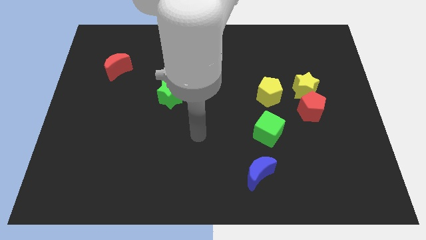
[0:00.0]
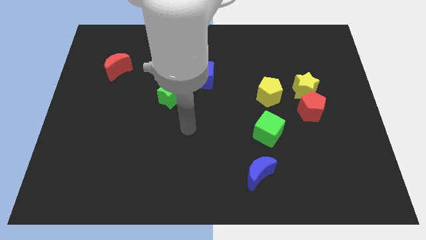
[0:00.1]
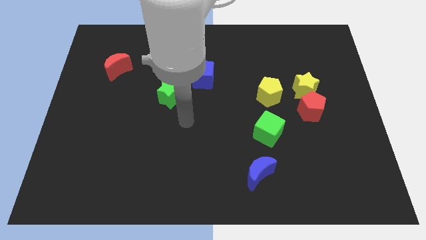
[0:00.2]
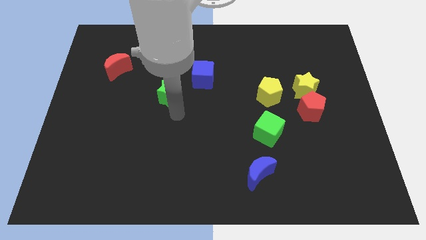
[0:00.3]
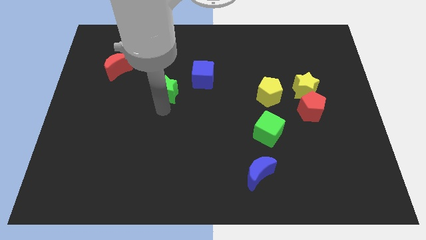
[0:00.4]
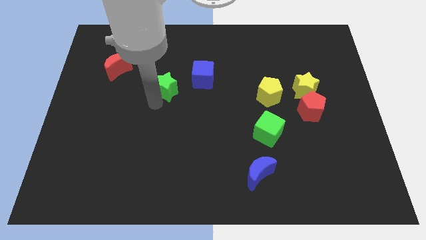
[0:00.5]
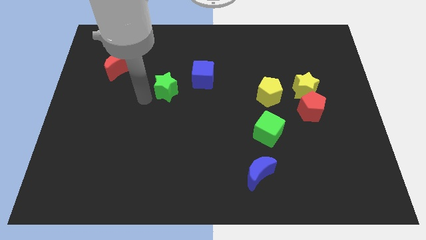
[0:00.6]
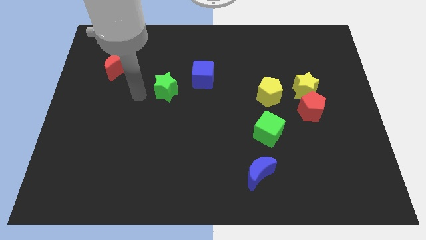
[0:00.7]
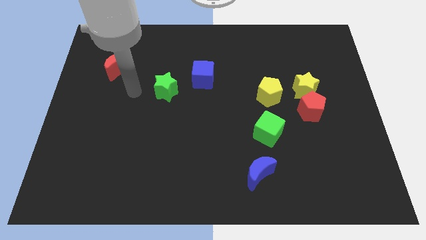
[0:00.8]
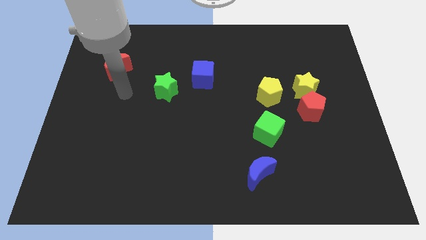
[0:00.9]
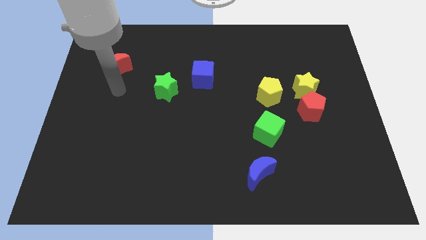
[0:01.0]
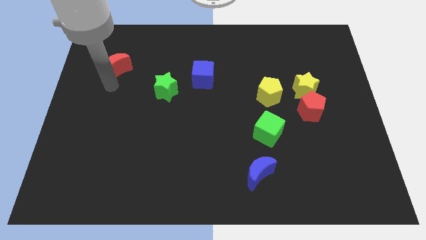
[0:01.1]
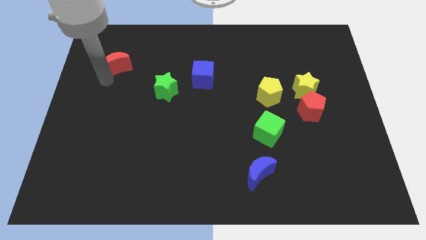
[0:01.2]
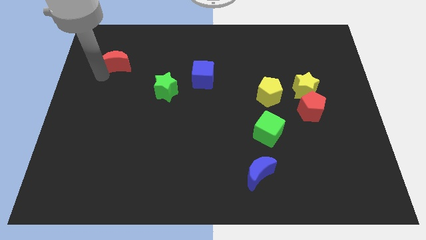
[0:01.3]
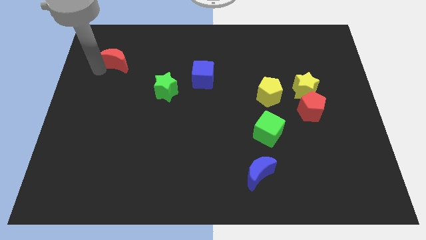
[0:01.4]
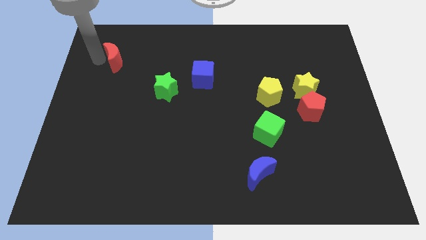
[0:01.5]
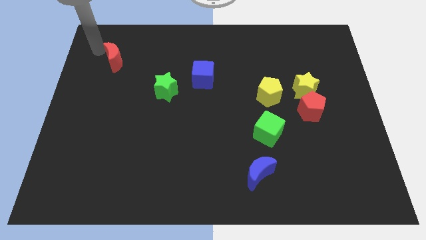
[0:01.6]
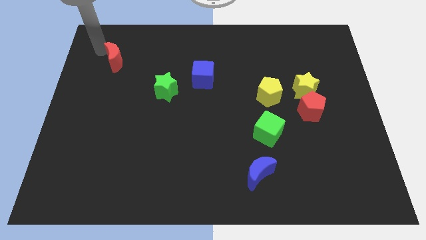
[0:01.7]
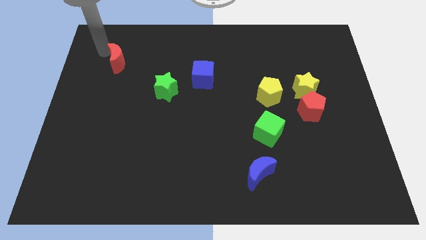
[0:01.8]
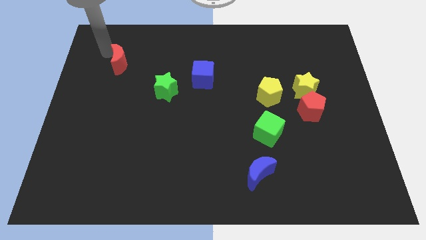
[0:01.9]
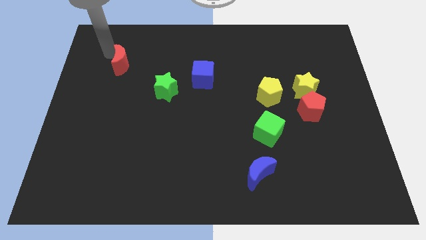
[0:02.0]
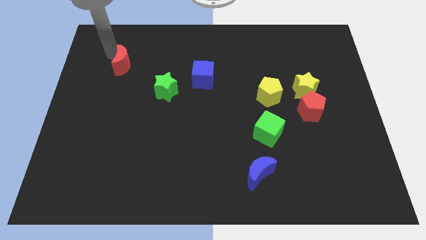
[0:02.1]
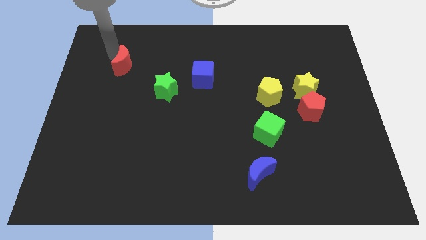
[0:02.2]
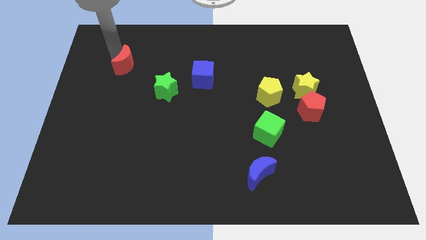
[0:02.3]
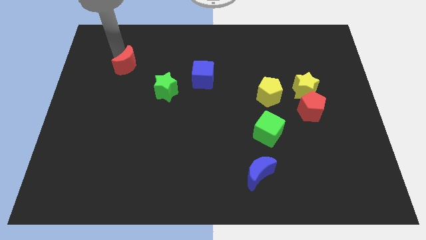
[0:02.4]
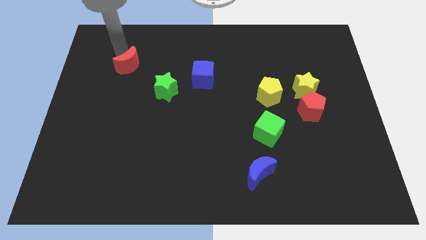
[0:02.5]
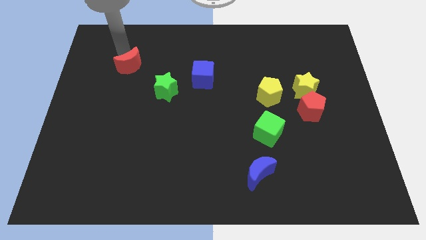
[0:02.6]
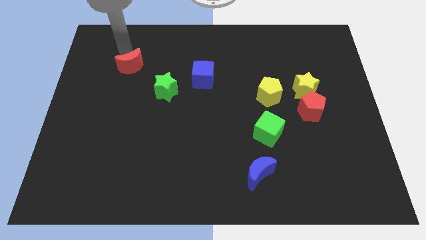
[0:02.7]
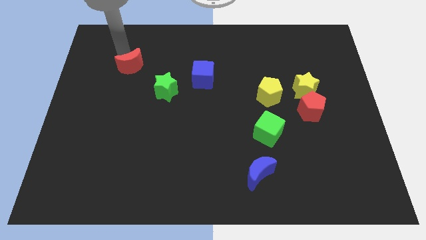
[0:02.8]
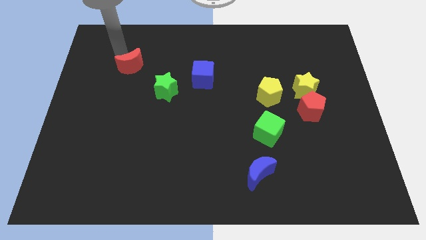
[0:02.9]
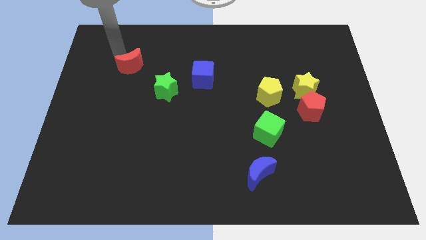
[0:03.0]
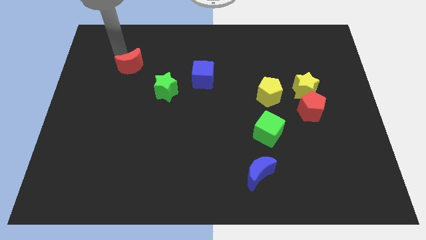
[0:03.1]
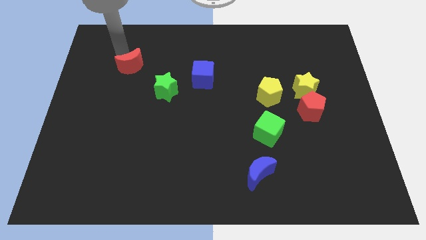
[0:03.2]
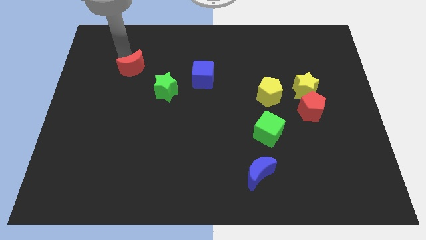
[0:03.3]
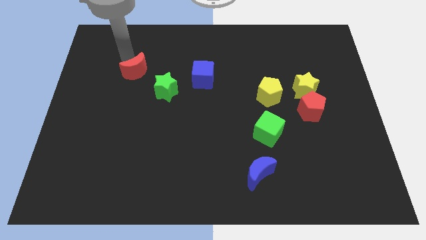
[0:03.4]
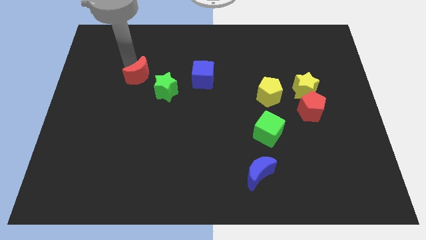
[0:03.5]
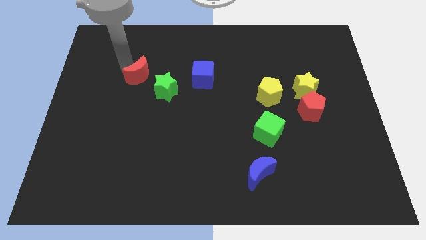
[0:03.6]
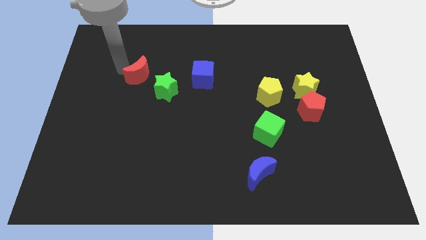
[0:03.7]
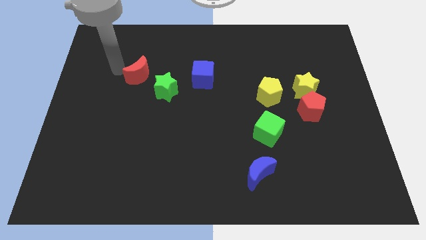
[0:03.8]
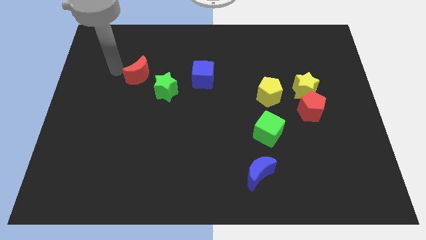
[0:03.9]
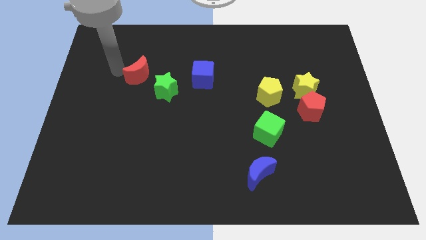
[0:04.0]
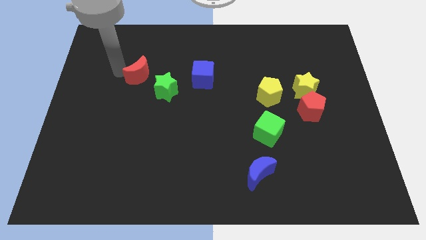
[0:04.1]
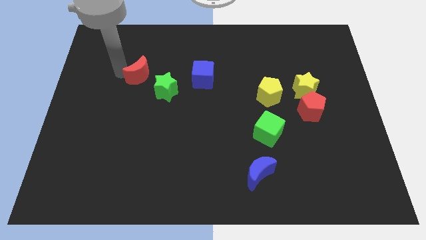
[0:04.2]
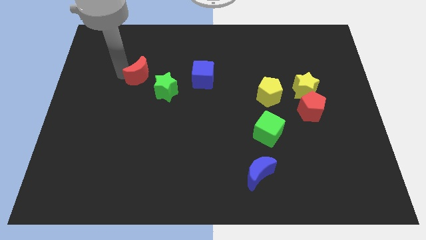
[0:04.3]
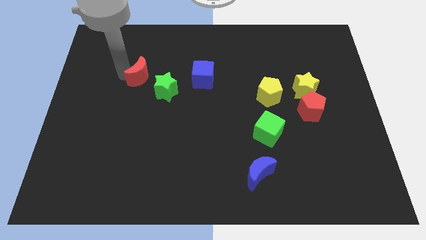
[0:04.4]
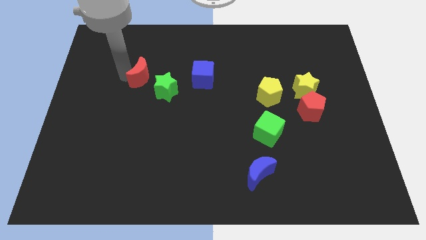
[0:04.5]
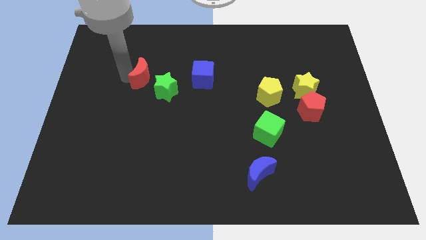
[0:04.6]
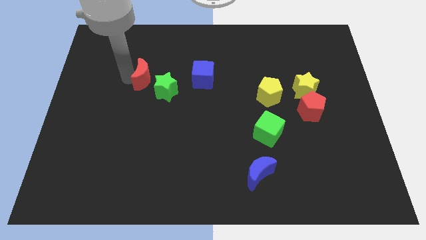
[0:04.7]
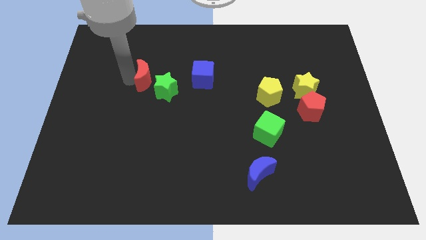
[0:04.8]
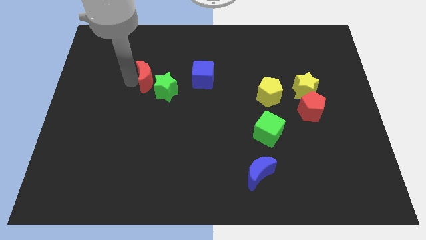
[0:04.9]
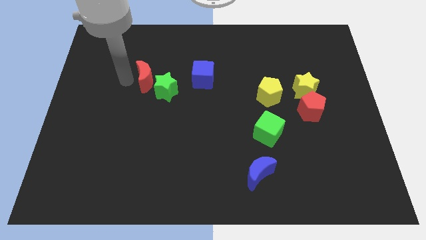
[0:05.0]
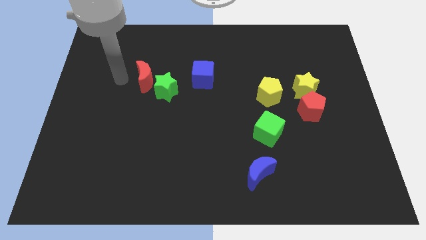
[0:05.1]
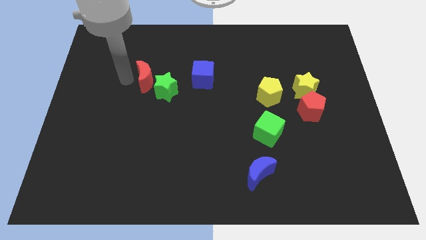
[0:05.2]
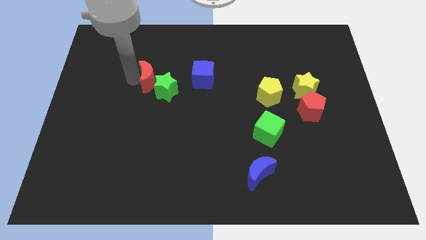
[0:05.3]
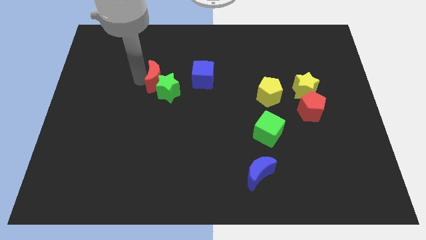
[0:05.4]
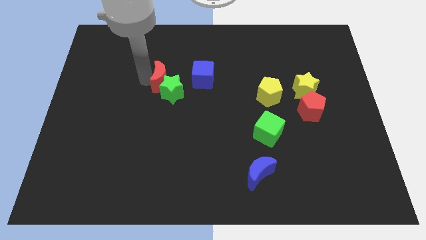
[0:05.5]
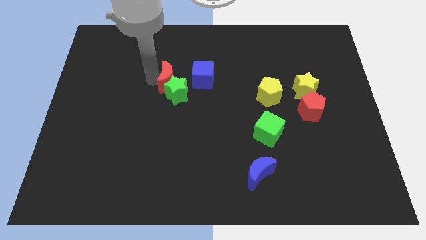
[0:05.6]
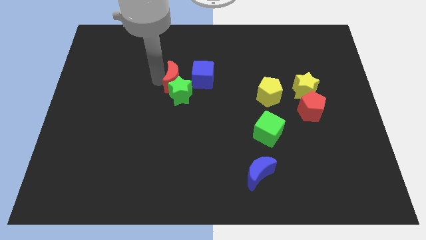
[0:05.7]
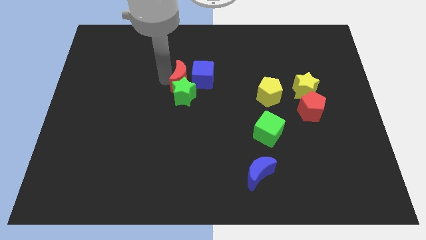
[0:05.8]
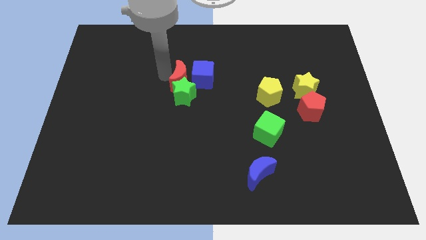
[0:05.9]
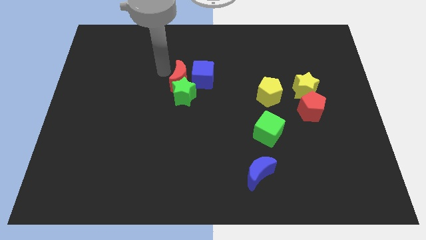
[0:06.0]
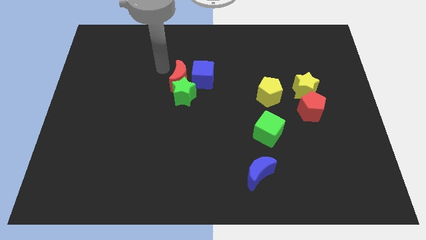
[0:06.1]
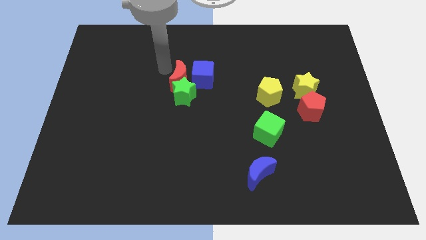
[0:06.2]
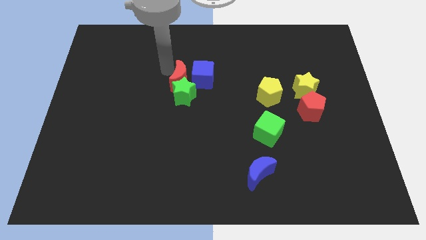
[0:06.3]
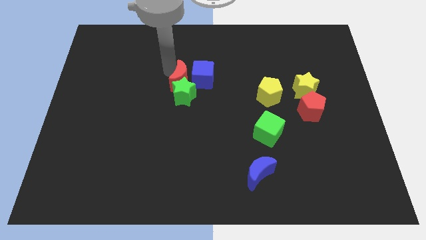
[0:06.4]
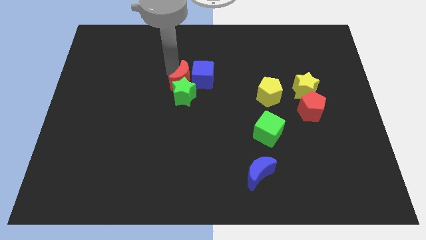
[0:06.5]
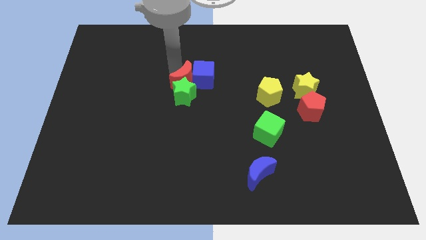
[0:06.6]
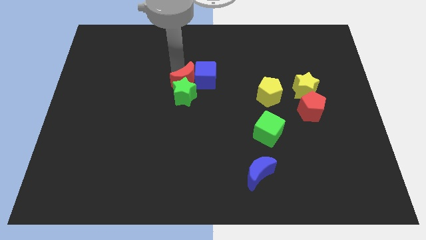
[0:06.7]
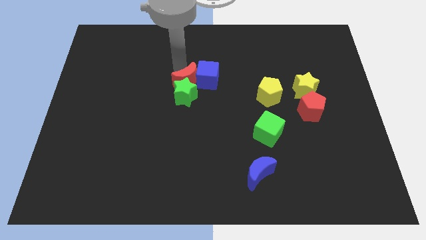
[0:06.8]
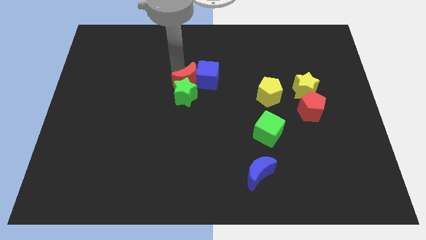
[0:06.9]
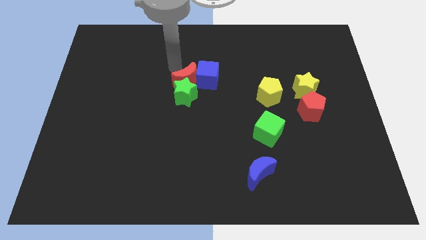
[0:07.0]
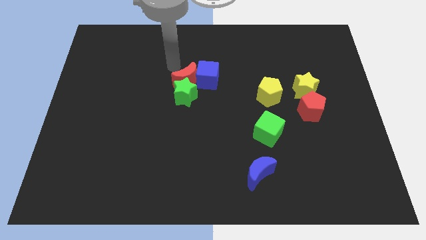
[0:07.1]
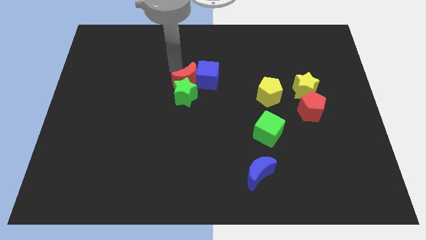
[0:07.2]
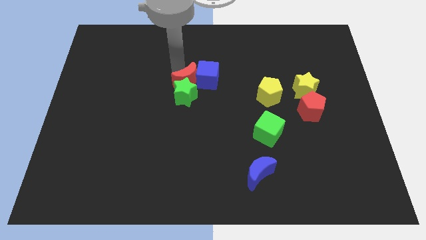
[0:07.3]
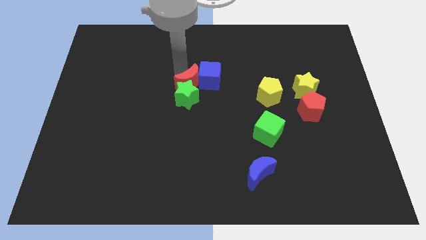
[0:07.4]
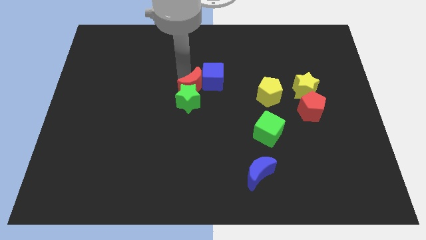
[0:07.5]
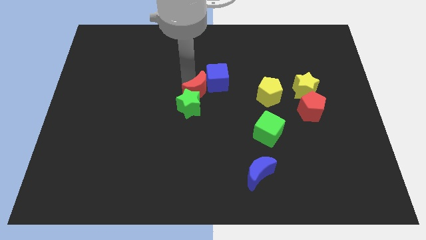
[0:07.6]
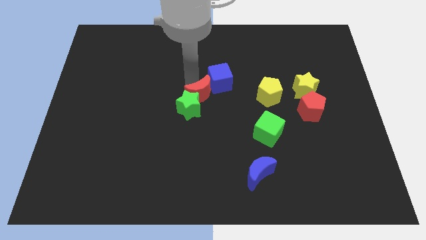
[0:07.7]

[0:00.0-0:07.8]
push the red moon to the left side of the yellow pentagon

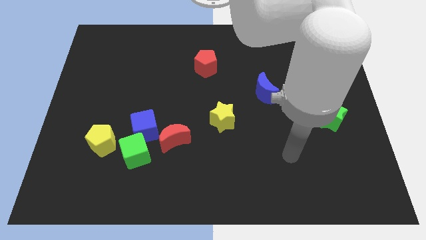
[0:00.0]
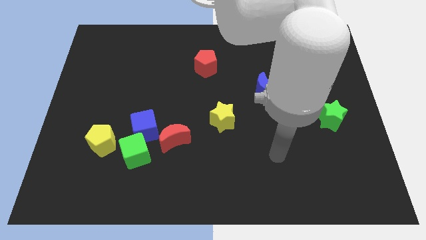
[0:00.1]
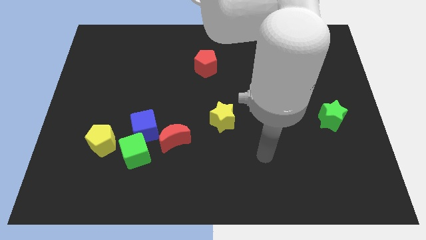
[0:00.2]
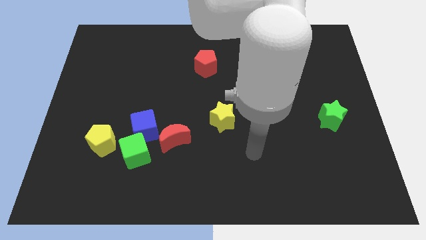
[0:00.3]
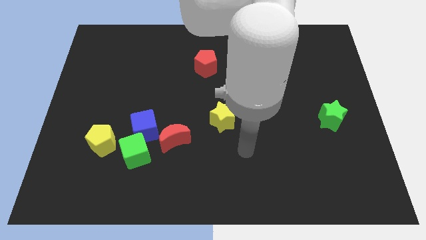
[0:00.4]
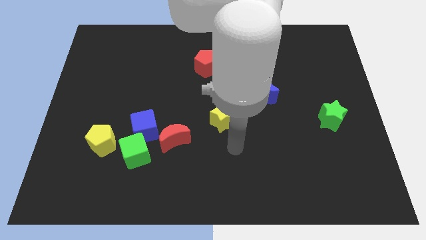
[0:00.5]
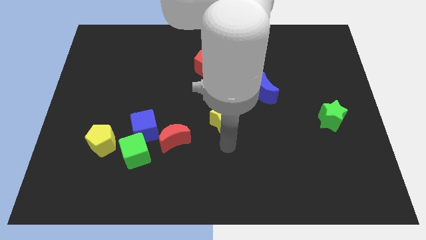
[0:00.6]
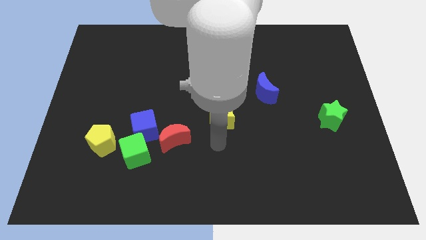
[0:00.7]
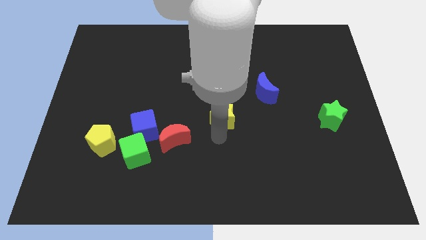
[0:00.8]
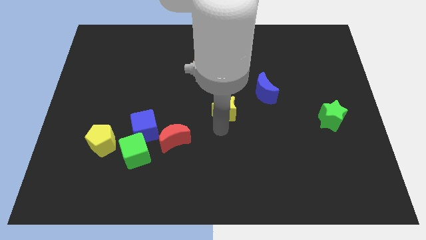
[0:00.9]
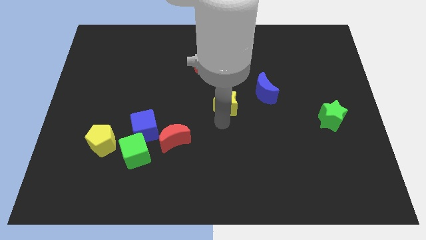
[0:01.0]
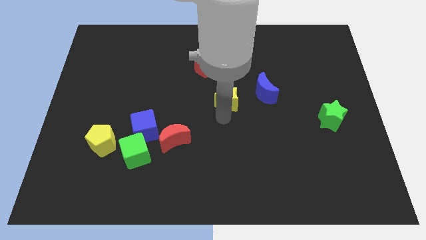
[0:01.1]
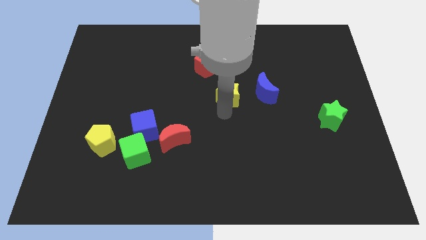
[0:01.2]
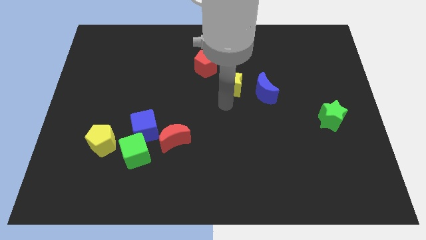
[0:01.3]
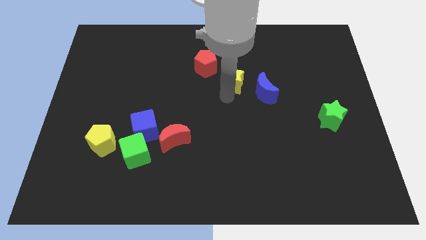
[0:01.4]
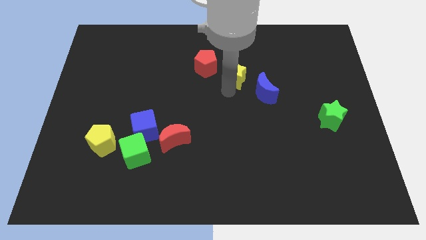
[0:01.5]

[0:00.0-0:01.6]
push the yellow star to the right of the red pentagon
